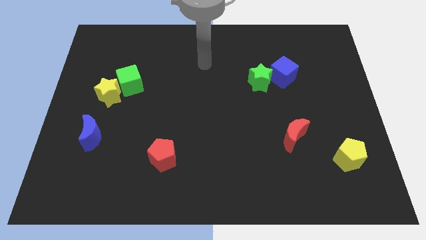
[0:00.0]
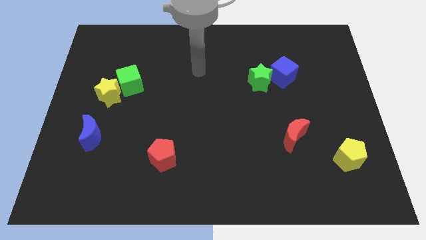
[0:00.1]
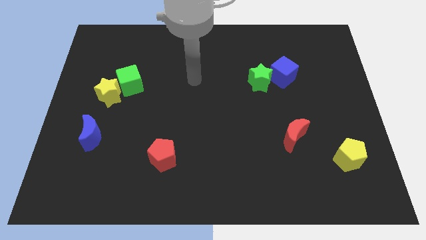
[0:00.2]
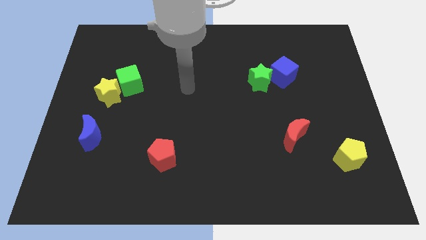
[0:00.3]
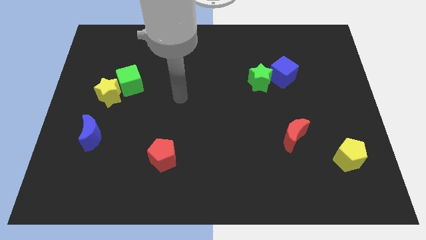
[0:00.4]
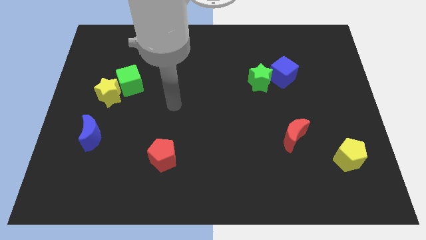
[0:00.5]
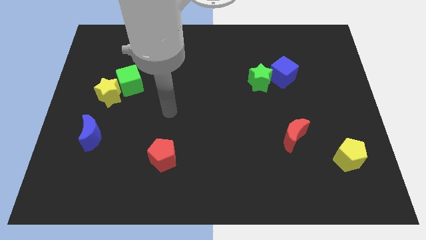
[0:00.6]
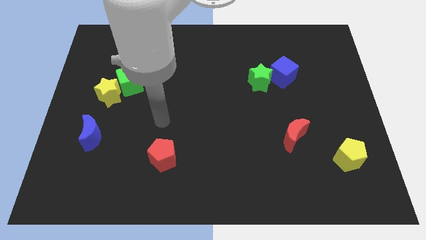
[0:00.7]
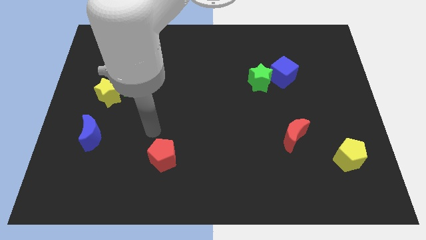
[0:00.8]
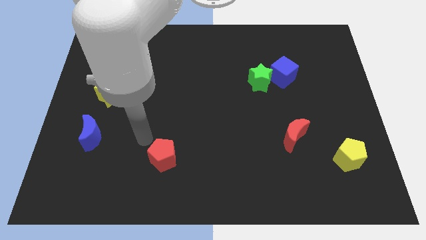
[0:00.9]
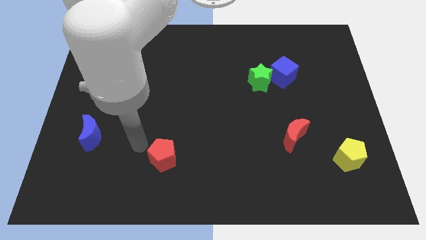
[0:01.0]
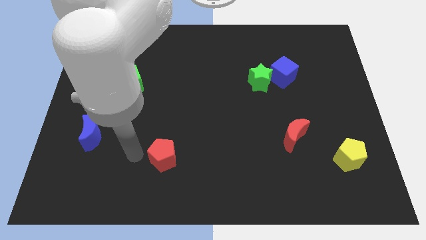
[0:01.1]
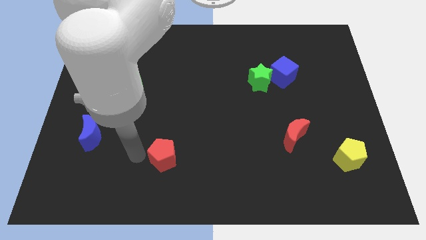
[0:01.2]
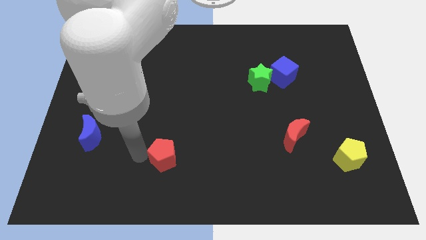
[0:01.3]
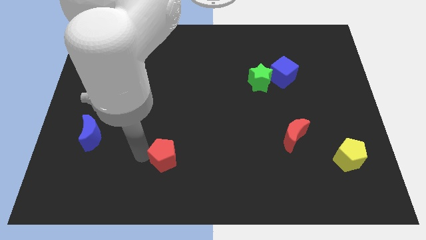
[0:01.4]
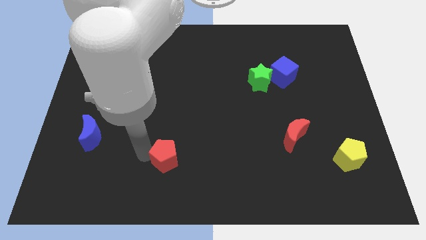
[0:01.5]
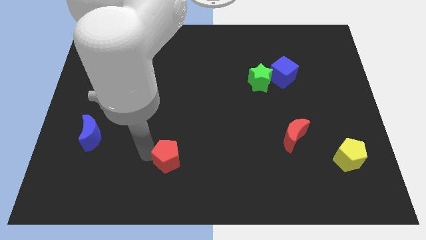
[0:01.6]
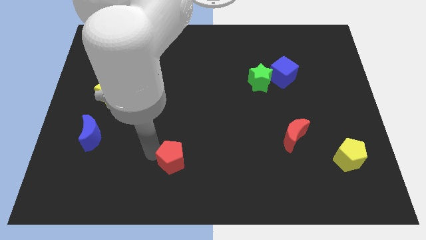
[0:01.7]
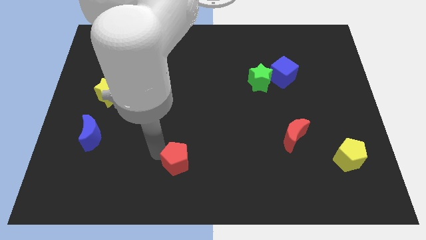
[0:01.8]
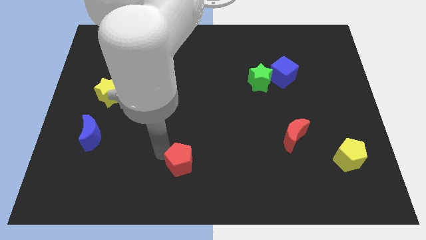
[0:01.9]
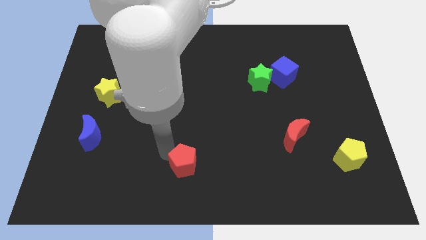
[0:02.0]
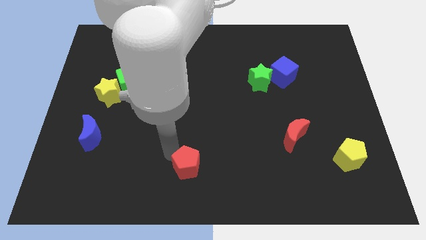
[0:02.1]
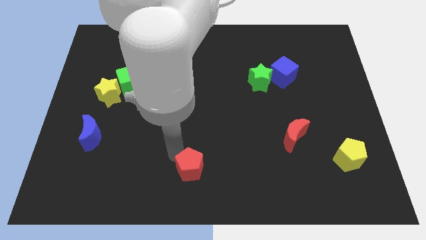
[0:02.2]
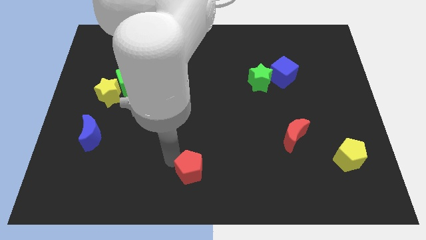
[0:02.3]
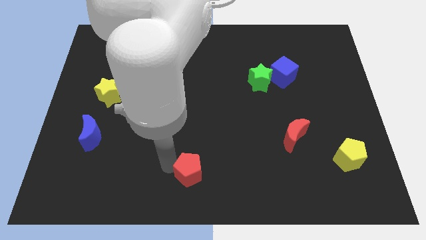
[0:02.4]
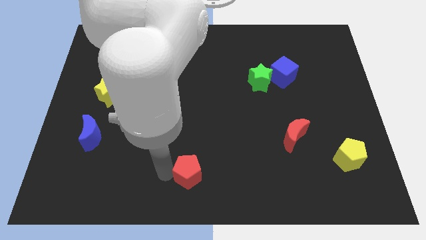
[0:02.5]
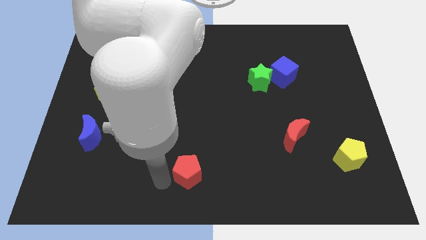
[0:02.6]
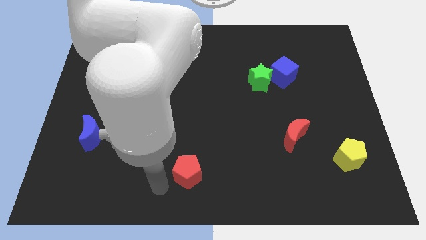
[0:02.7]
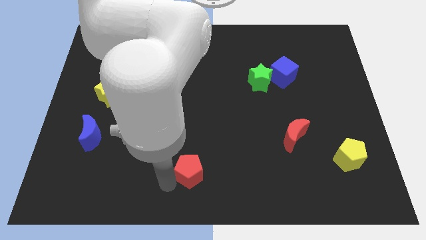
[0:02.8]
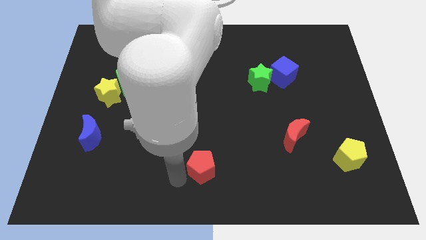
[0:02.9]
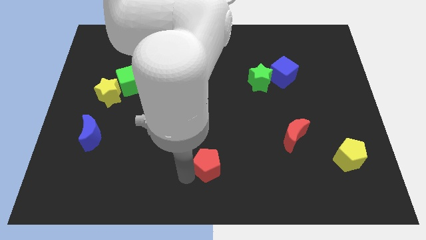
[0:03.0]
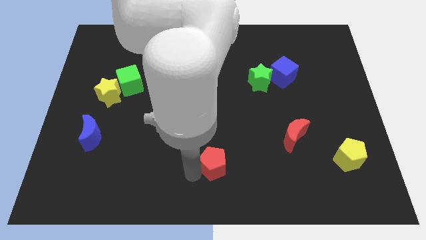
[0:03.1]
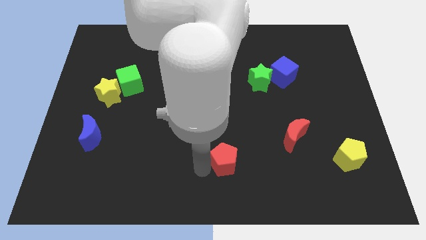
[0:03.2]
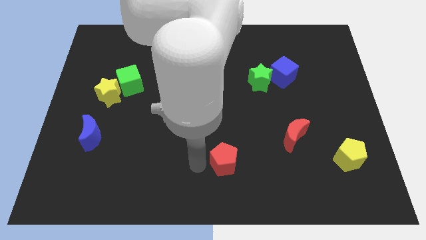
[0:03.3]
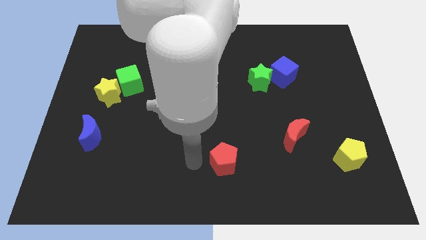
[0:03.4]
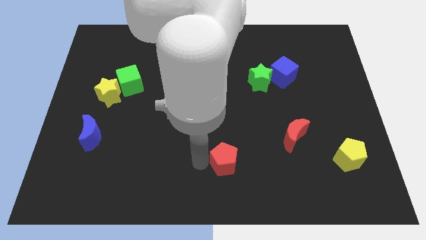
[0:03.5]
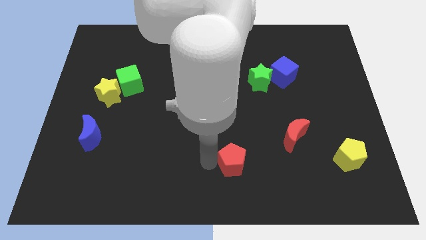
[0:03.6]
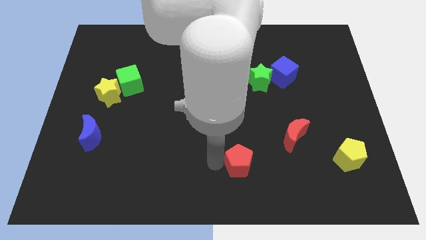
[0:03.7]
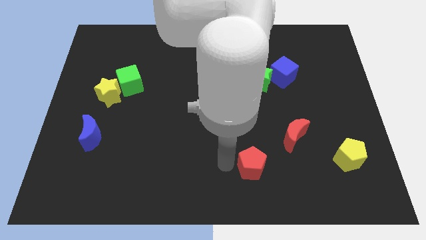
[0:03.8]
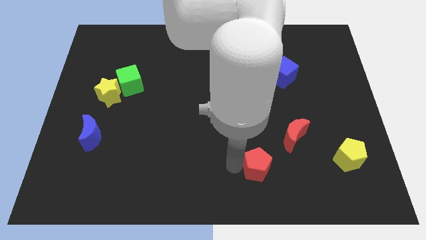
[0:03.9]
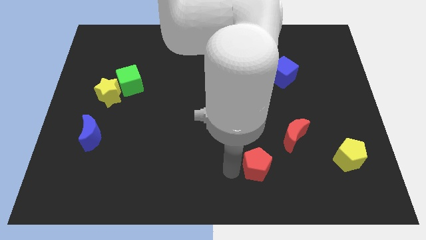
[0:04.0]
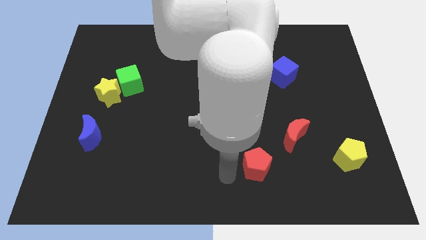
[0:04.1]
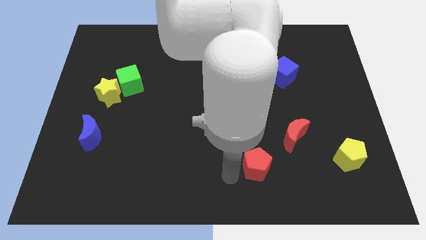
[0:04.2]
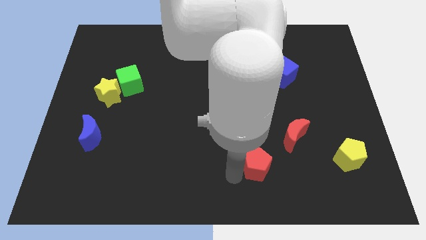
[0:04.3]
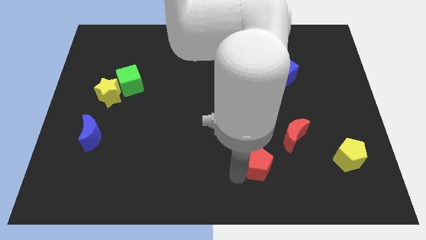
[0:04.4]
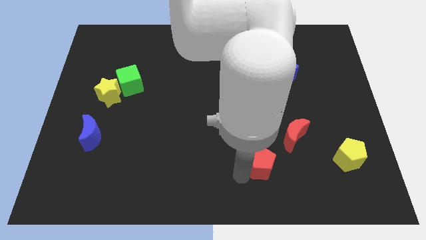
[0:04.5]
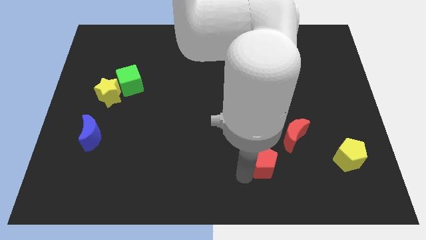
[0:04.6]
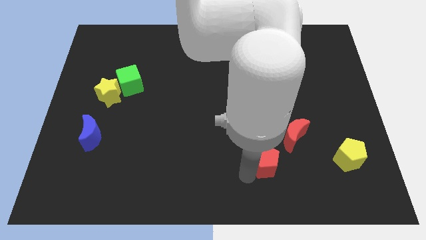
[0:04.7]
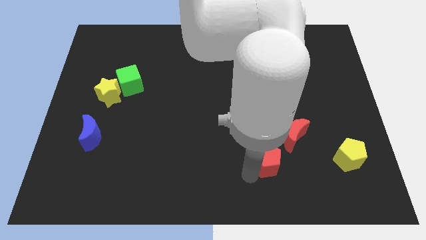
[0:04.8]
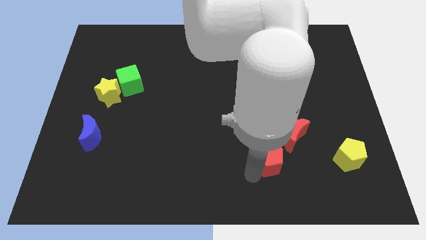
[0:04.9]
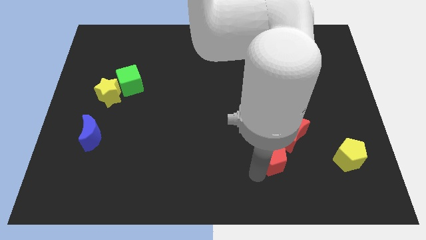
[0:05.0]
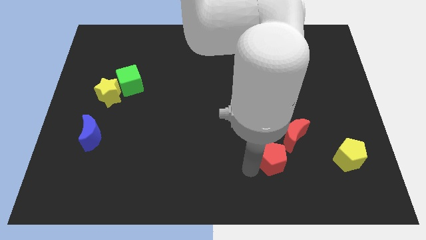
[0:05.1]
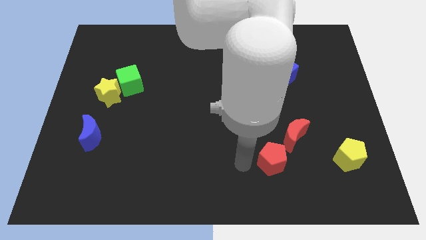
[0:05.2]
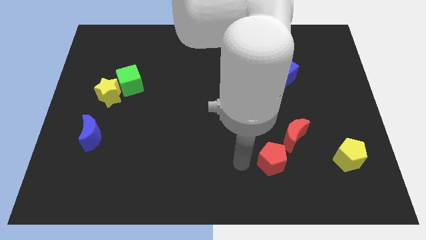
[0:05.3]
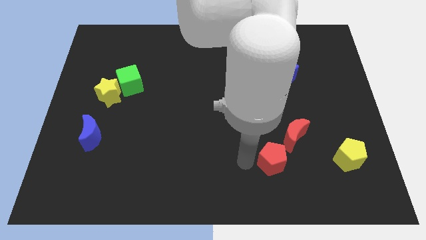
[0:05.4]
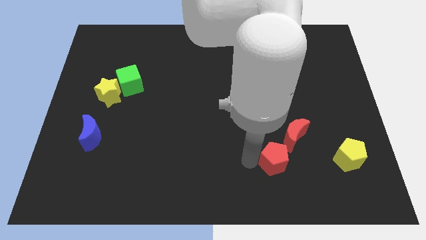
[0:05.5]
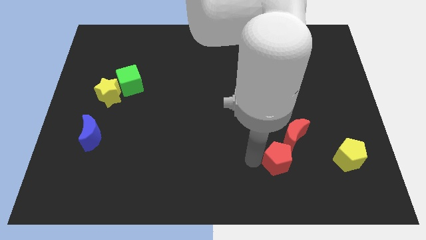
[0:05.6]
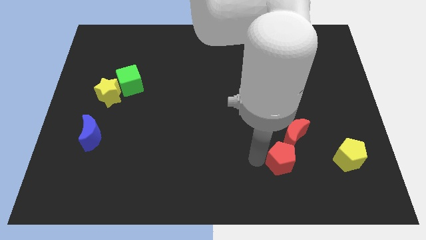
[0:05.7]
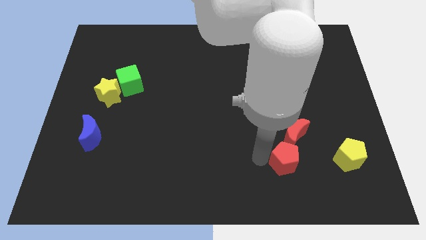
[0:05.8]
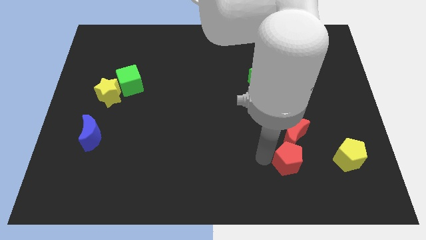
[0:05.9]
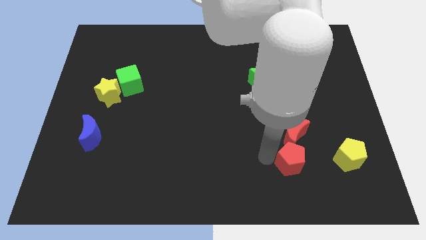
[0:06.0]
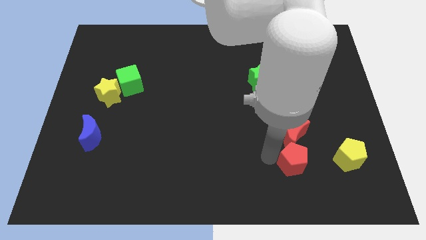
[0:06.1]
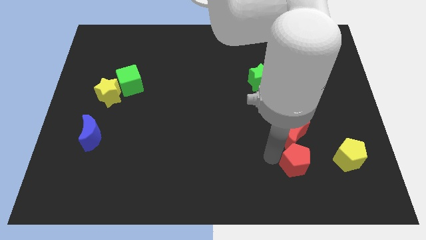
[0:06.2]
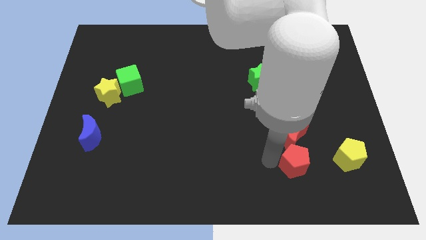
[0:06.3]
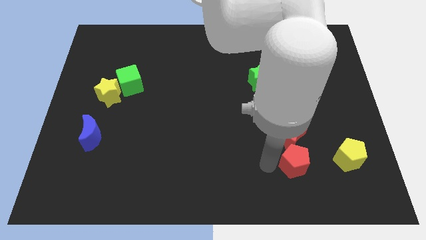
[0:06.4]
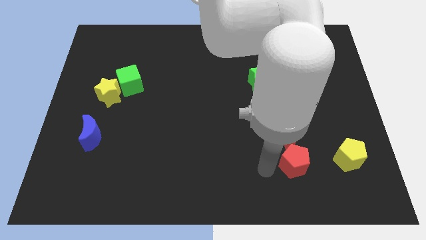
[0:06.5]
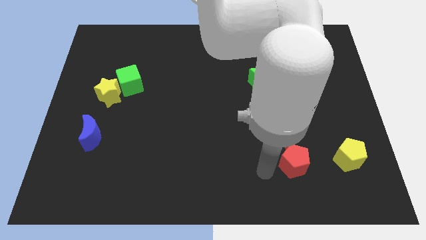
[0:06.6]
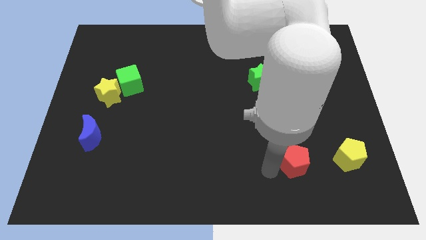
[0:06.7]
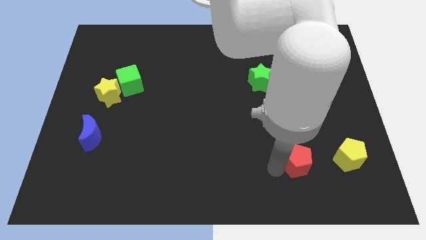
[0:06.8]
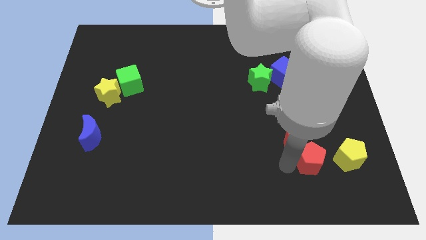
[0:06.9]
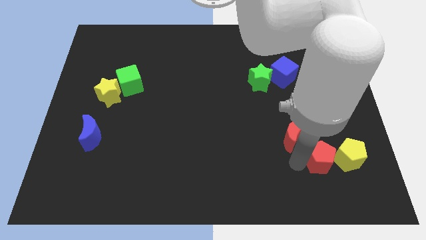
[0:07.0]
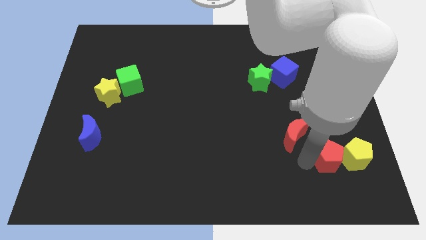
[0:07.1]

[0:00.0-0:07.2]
put the red pentagon towards the yellow pentagon
